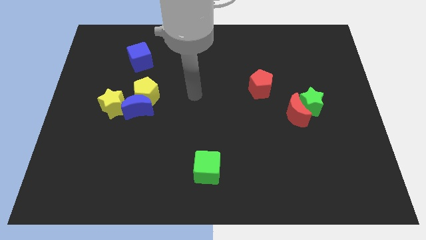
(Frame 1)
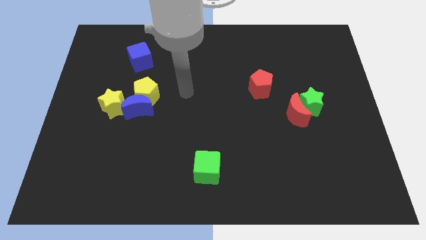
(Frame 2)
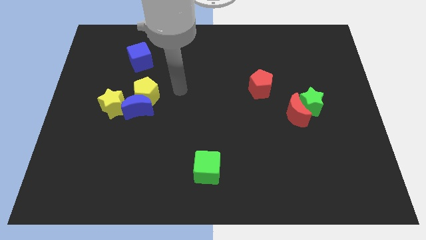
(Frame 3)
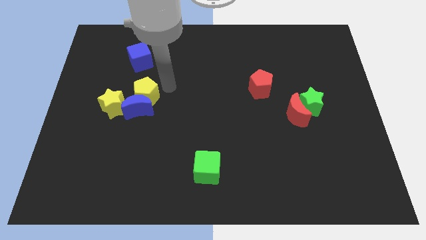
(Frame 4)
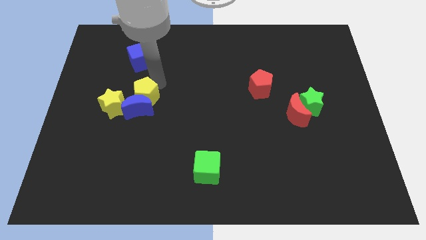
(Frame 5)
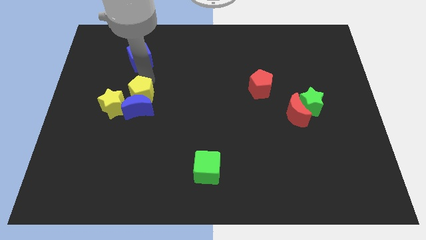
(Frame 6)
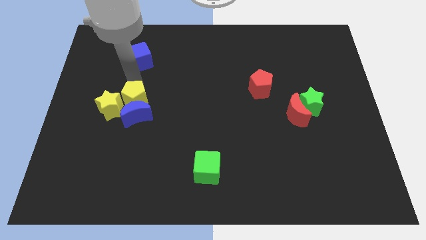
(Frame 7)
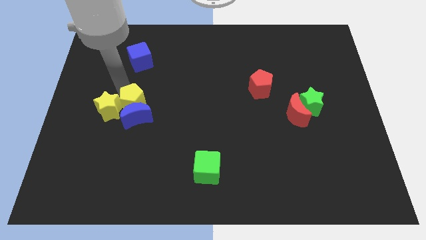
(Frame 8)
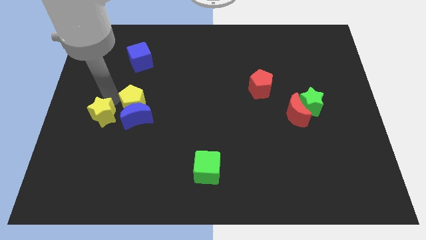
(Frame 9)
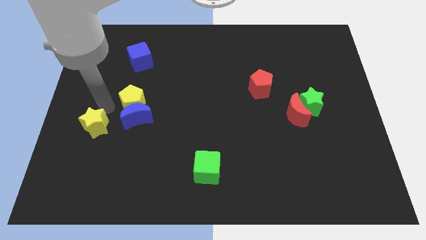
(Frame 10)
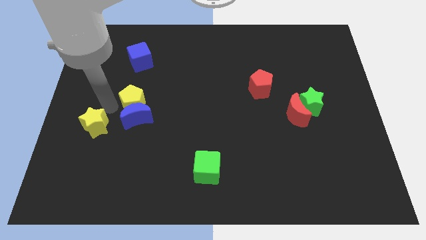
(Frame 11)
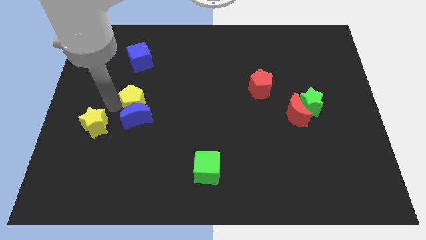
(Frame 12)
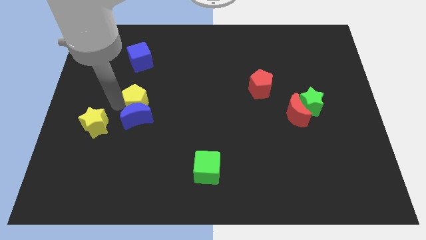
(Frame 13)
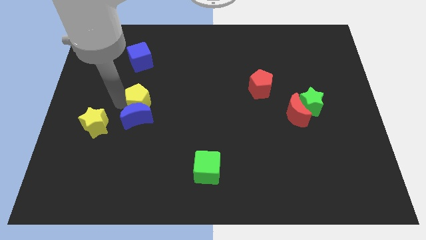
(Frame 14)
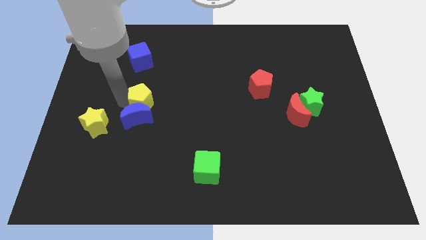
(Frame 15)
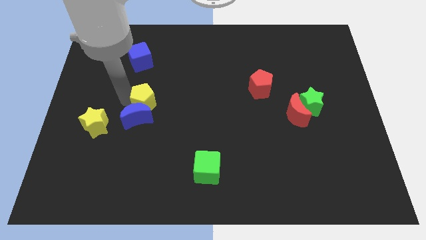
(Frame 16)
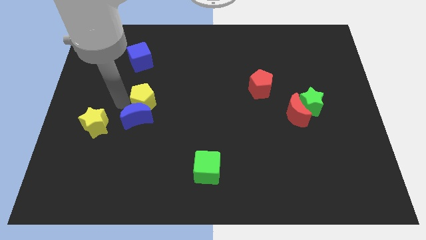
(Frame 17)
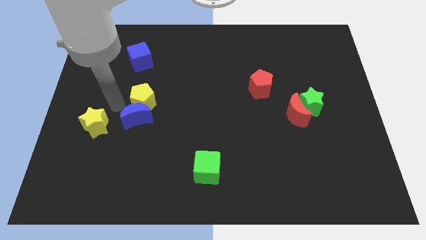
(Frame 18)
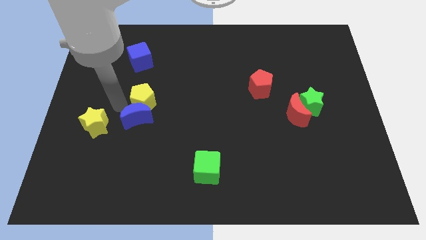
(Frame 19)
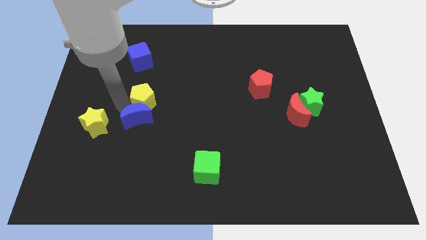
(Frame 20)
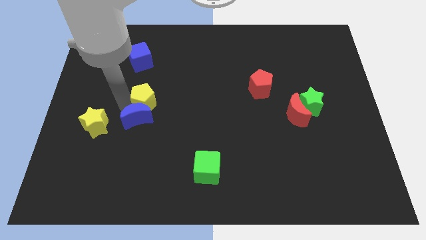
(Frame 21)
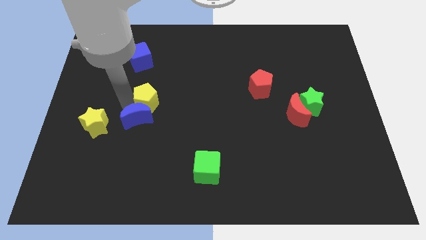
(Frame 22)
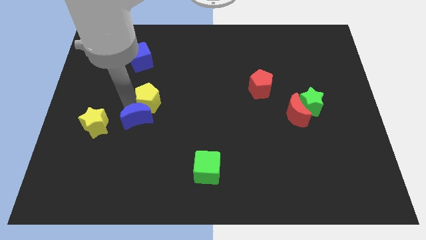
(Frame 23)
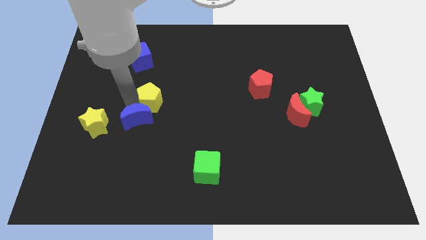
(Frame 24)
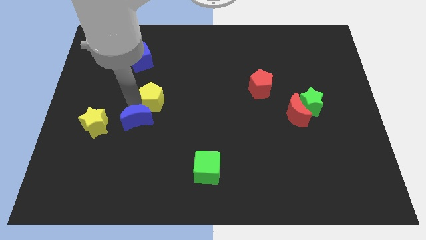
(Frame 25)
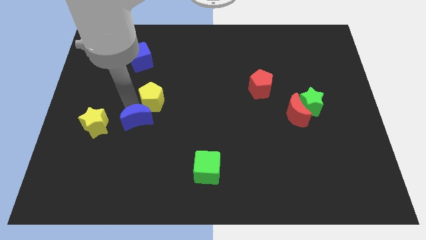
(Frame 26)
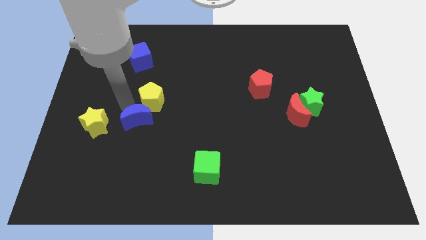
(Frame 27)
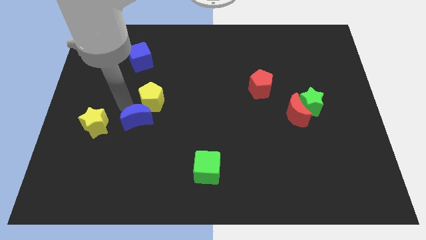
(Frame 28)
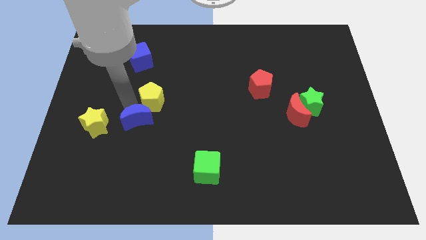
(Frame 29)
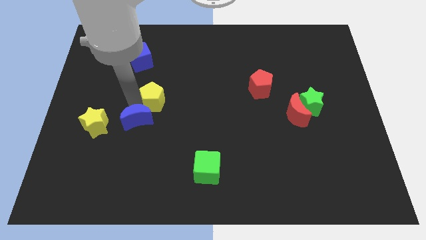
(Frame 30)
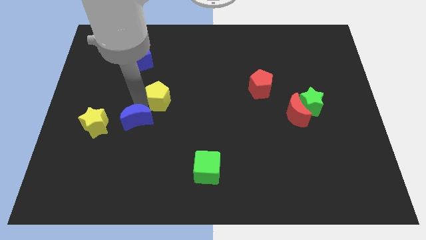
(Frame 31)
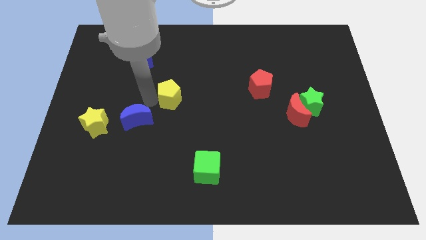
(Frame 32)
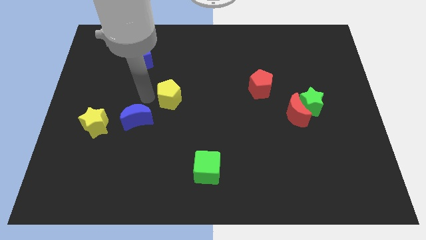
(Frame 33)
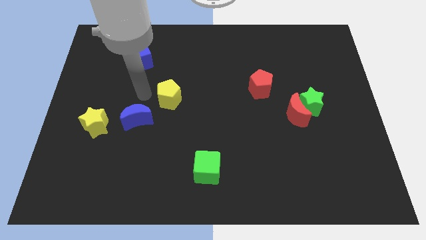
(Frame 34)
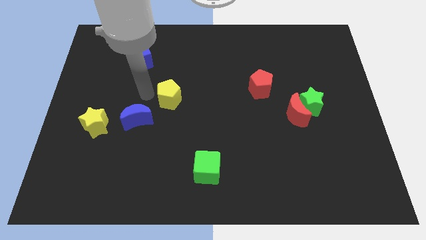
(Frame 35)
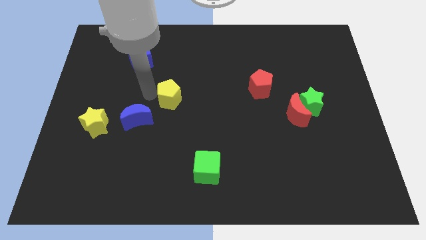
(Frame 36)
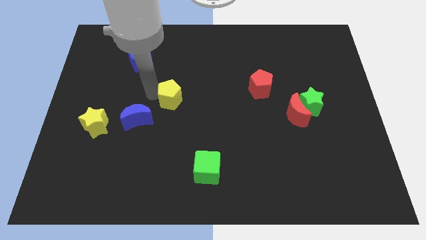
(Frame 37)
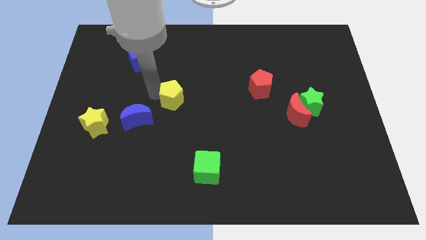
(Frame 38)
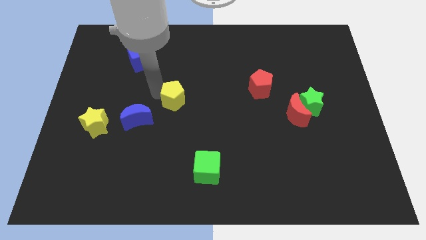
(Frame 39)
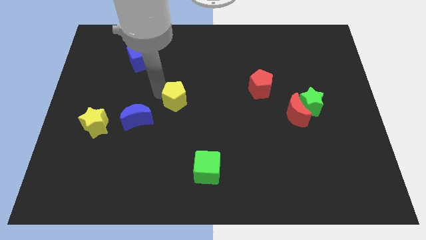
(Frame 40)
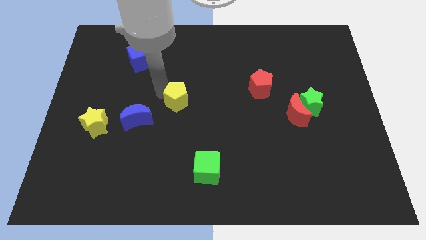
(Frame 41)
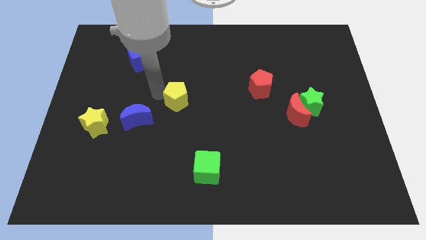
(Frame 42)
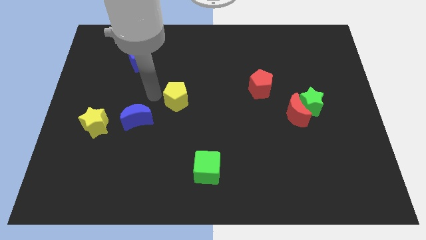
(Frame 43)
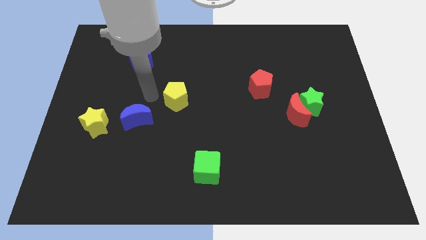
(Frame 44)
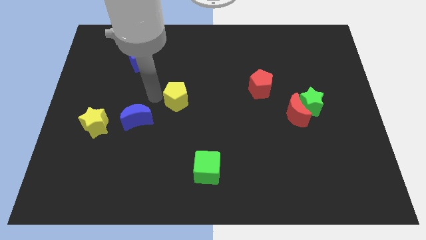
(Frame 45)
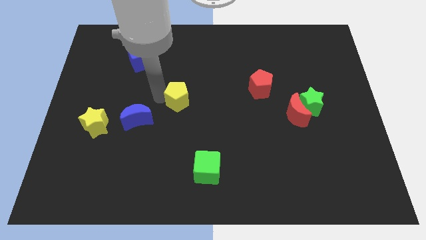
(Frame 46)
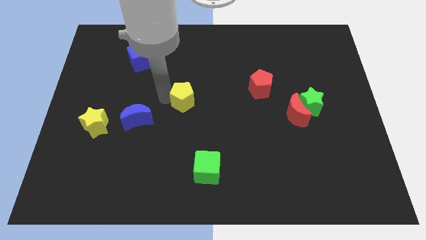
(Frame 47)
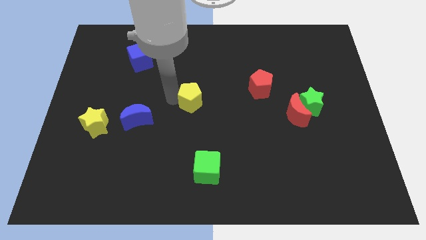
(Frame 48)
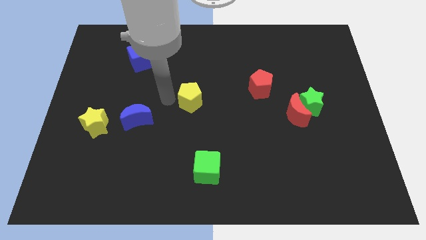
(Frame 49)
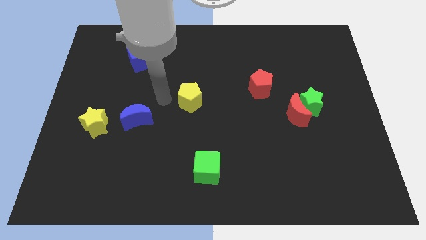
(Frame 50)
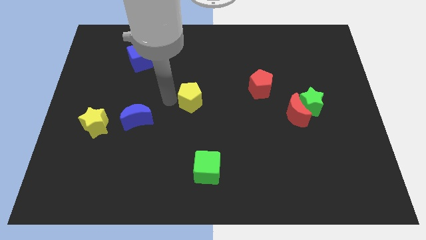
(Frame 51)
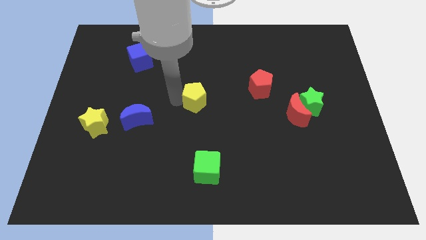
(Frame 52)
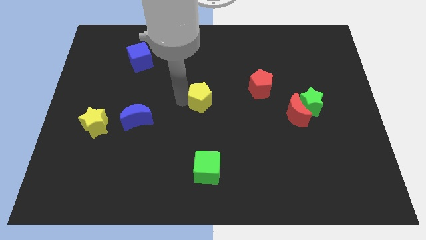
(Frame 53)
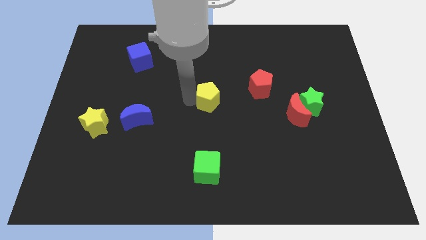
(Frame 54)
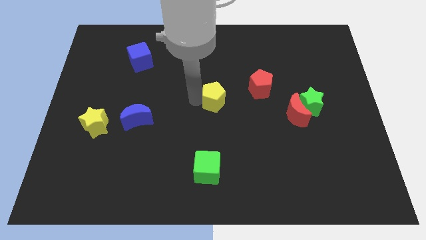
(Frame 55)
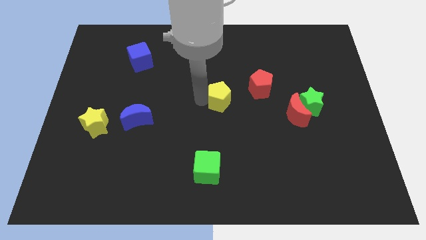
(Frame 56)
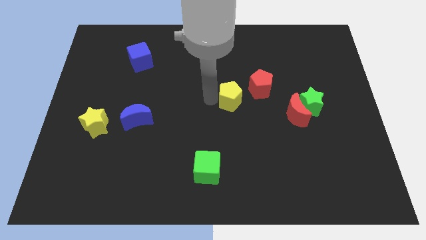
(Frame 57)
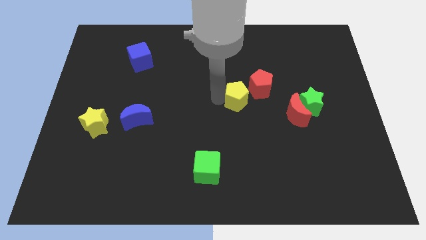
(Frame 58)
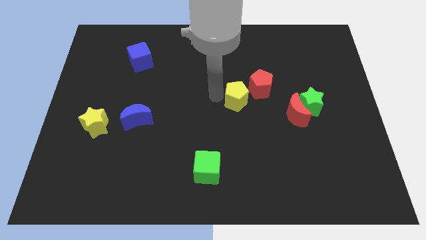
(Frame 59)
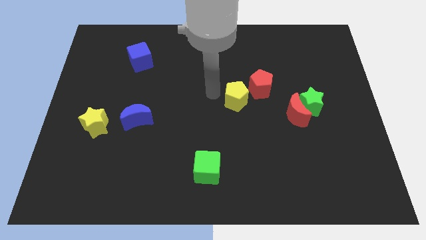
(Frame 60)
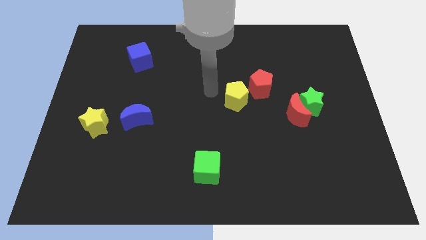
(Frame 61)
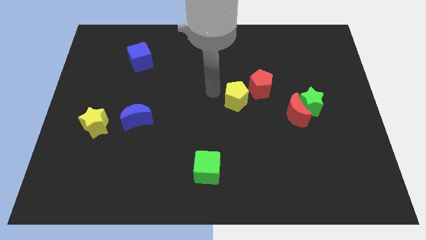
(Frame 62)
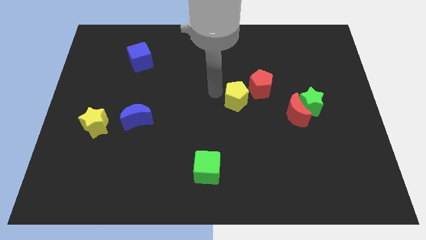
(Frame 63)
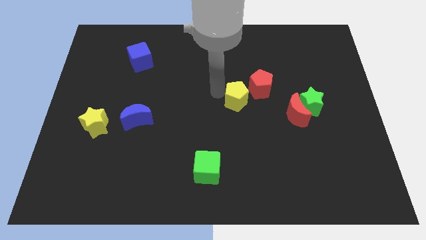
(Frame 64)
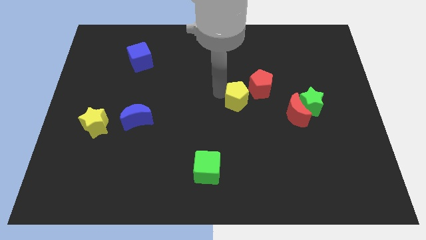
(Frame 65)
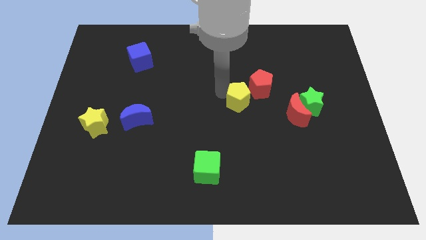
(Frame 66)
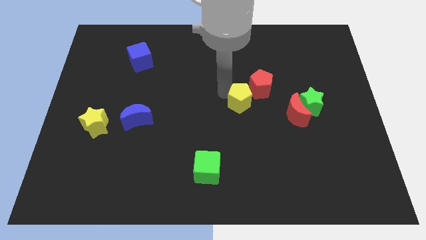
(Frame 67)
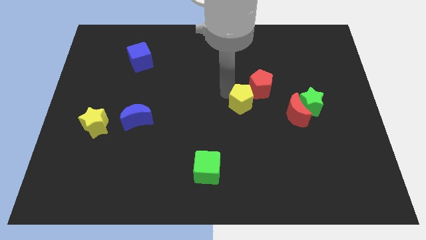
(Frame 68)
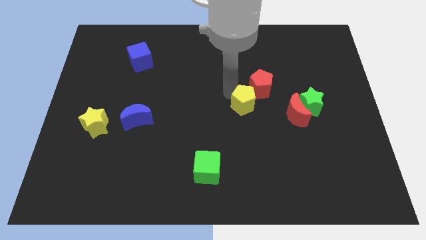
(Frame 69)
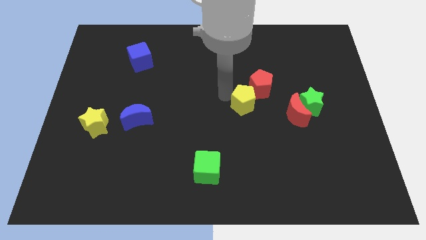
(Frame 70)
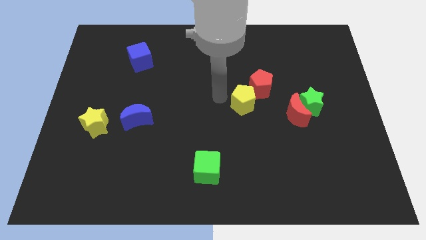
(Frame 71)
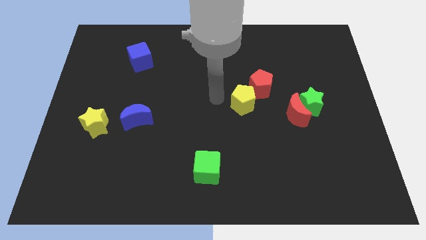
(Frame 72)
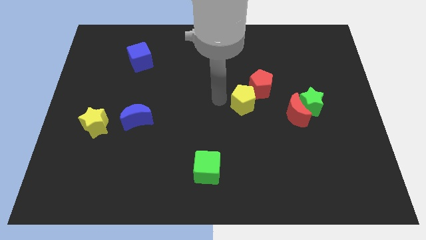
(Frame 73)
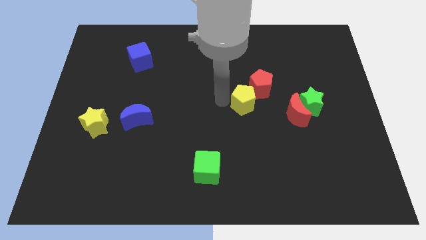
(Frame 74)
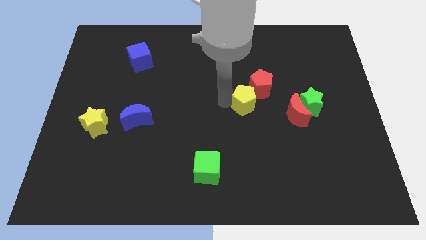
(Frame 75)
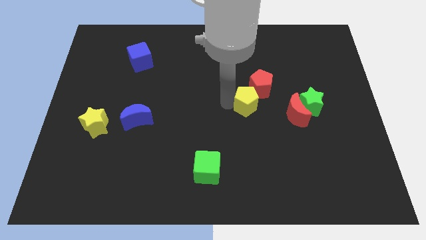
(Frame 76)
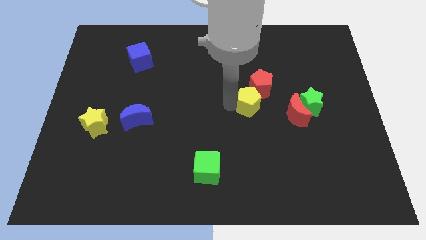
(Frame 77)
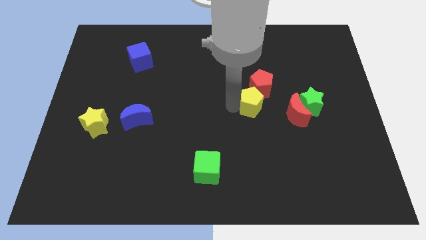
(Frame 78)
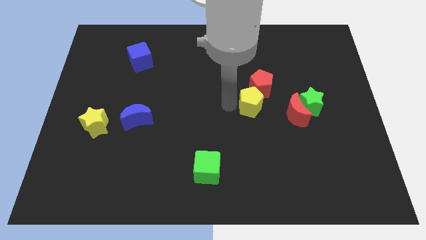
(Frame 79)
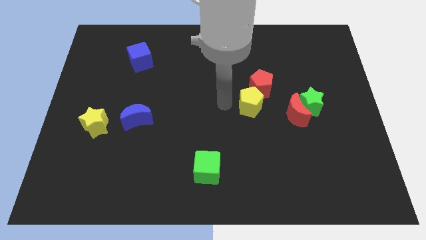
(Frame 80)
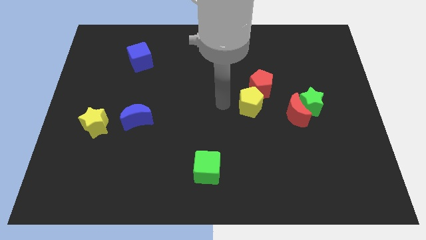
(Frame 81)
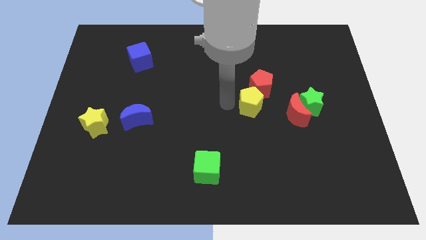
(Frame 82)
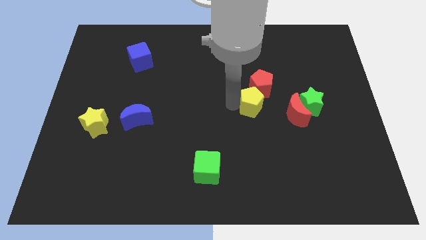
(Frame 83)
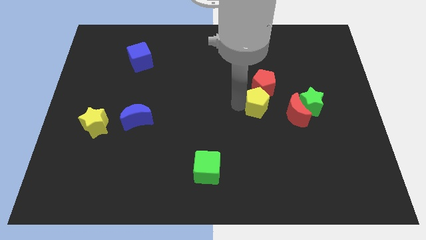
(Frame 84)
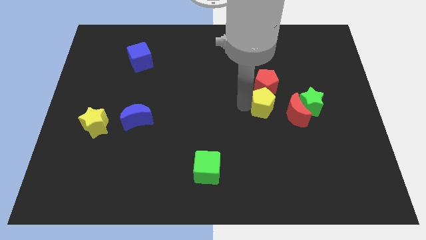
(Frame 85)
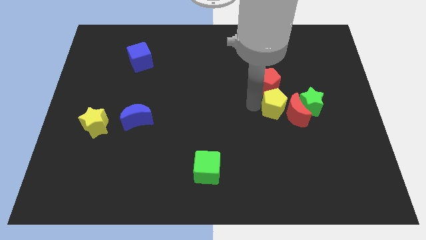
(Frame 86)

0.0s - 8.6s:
put the yellow pentagon towards the red moon
